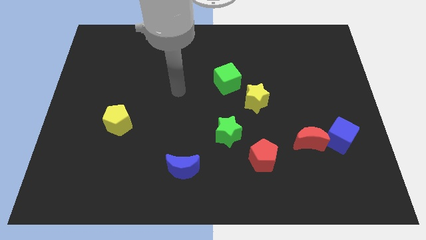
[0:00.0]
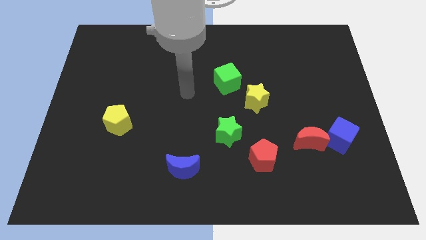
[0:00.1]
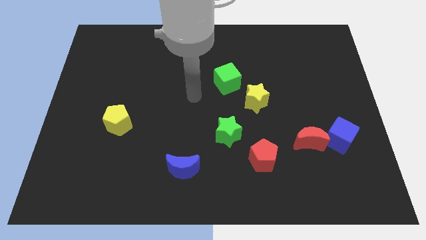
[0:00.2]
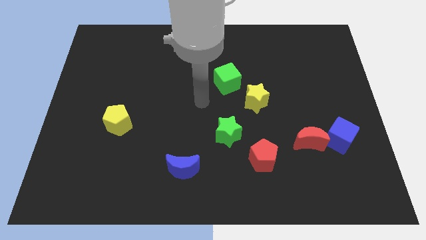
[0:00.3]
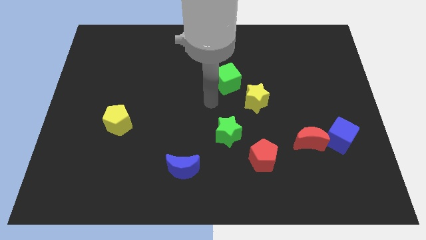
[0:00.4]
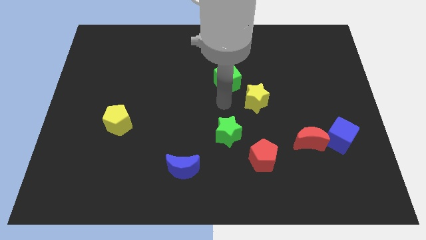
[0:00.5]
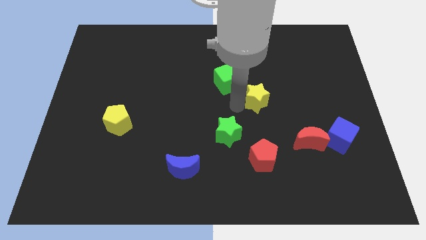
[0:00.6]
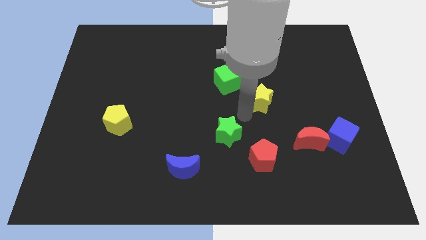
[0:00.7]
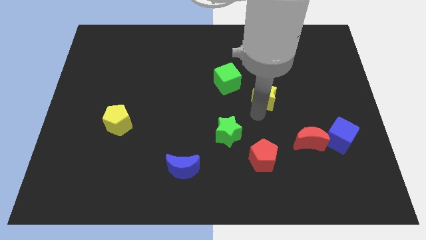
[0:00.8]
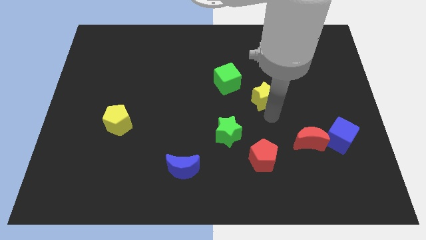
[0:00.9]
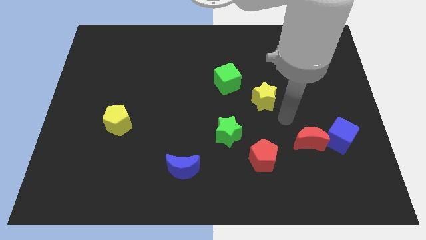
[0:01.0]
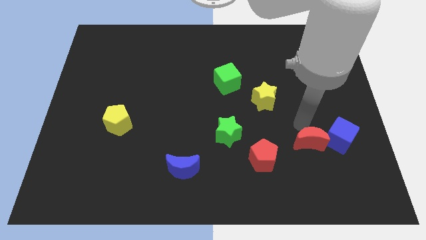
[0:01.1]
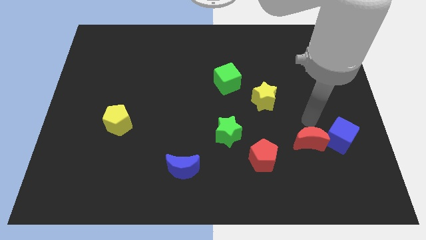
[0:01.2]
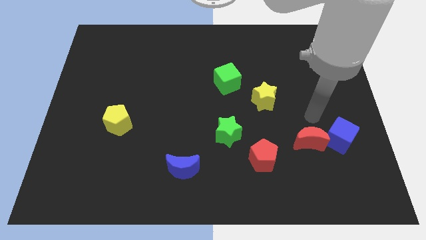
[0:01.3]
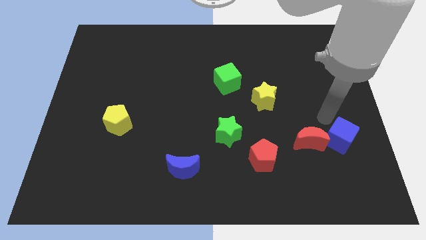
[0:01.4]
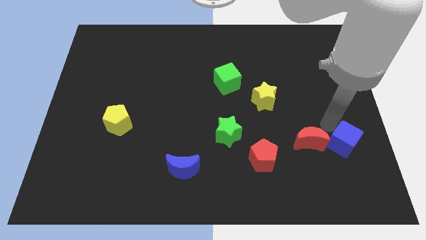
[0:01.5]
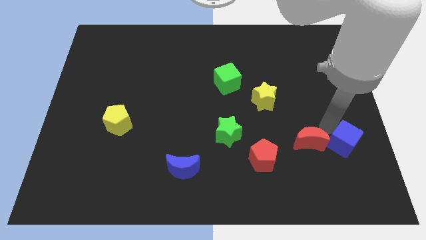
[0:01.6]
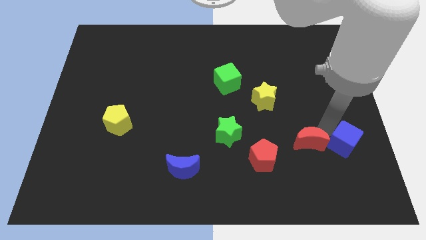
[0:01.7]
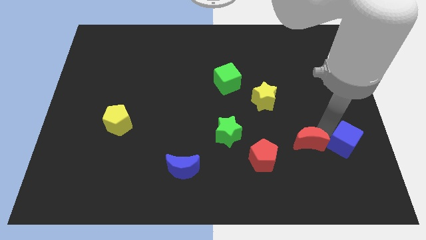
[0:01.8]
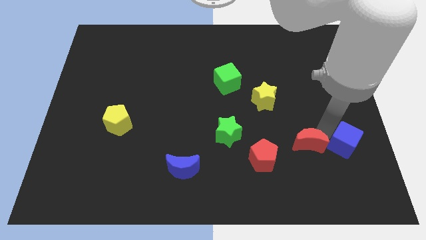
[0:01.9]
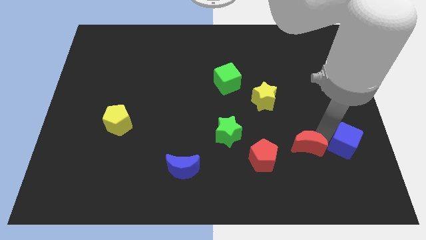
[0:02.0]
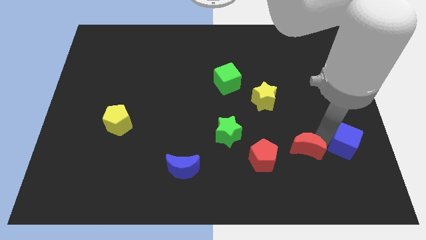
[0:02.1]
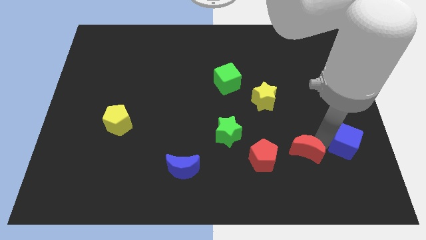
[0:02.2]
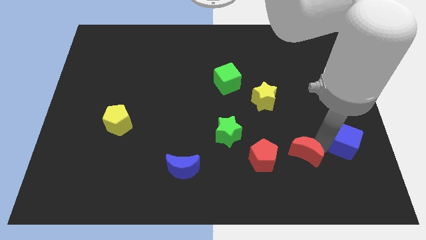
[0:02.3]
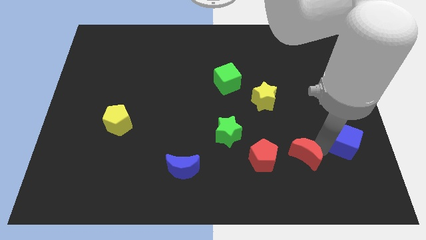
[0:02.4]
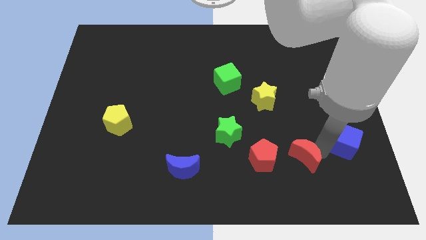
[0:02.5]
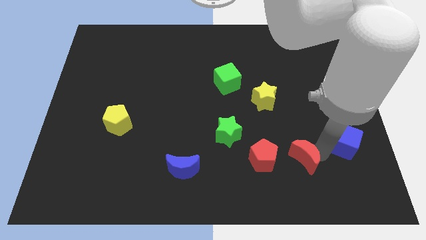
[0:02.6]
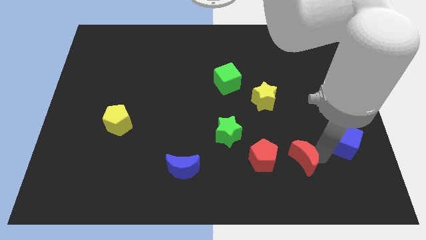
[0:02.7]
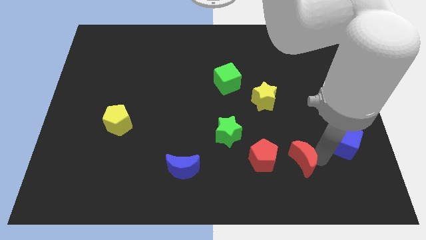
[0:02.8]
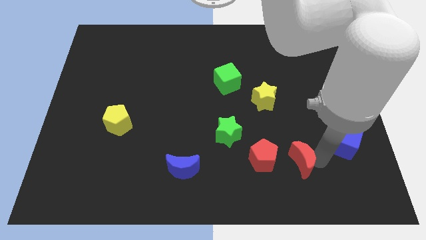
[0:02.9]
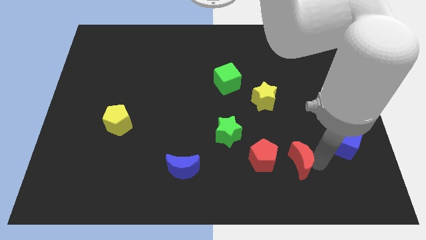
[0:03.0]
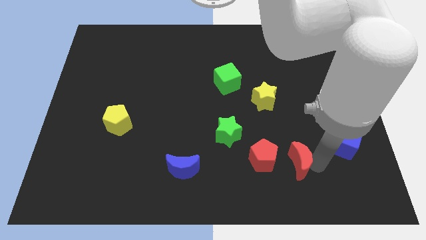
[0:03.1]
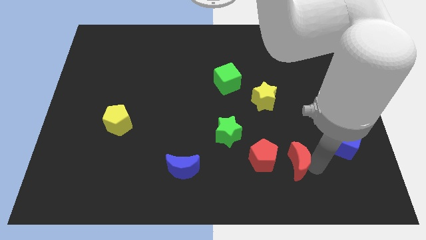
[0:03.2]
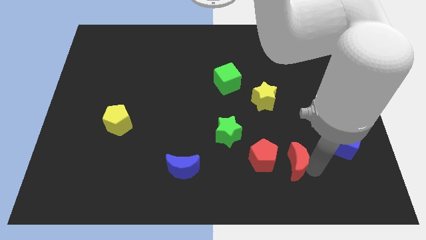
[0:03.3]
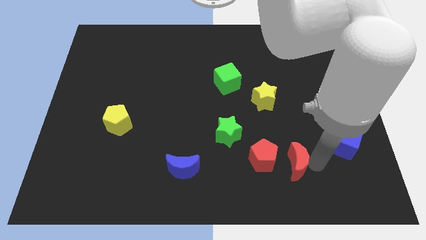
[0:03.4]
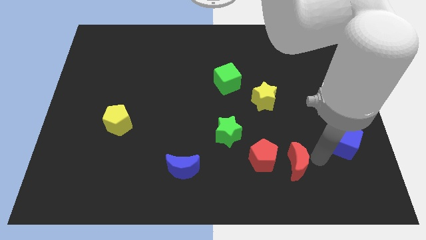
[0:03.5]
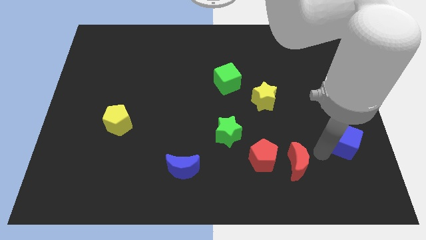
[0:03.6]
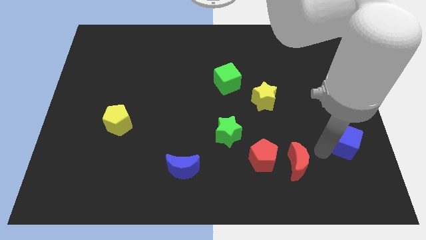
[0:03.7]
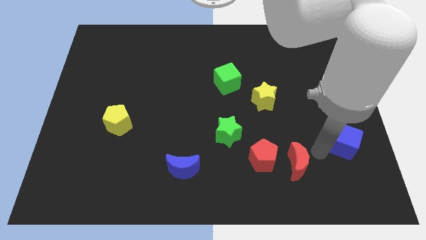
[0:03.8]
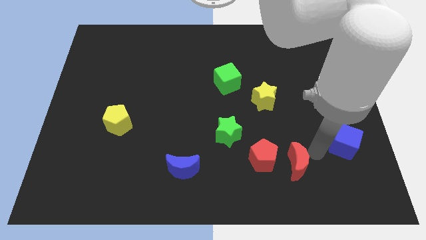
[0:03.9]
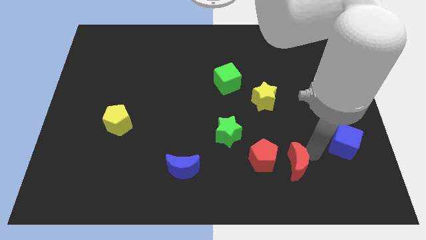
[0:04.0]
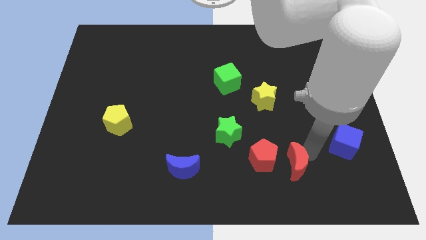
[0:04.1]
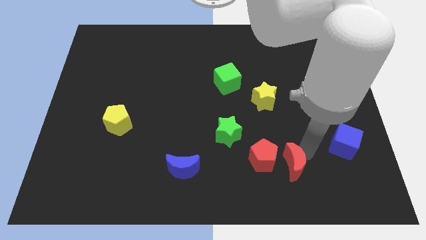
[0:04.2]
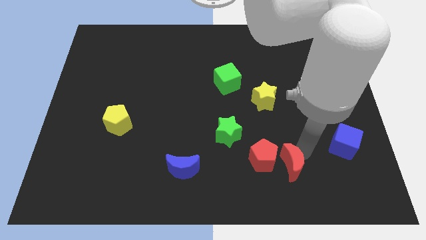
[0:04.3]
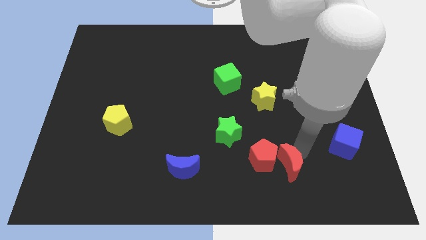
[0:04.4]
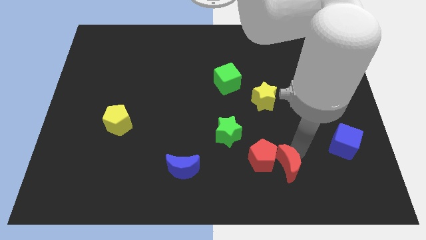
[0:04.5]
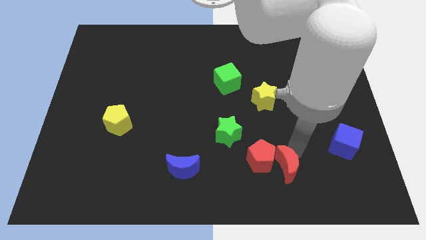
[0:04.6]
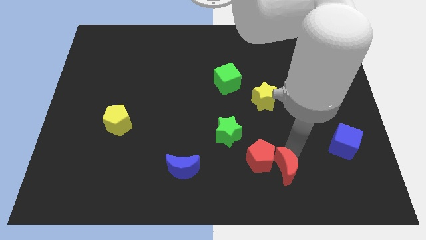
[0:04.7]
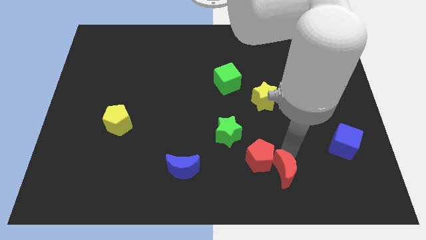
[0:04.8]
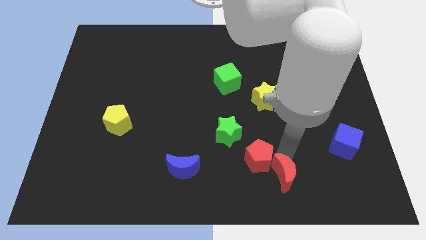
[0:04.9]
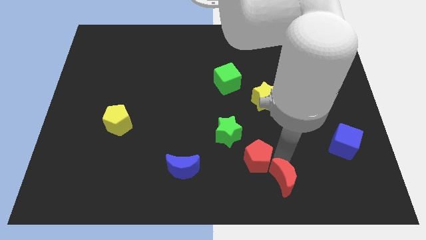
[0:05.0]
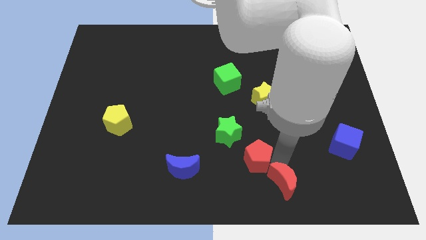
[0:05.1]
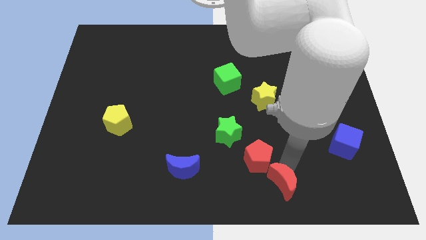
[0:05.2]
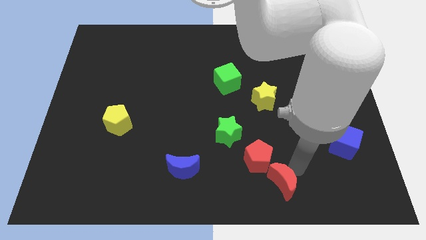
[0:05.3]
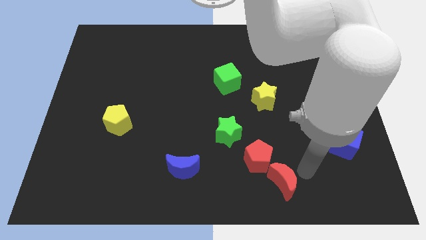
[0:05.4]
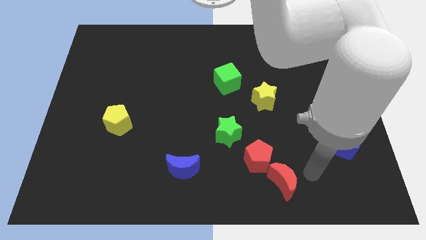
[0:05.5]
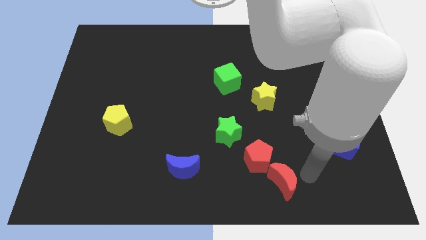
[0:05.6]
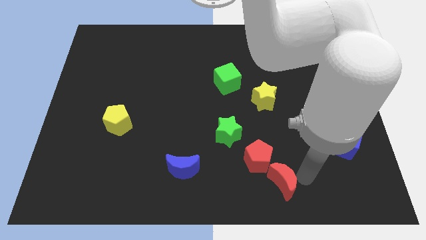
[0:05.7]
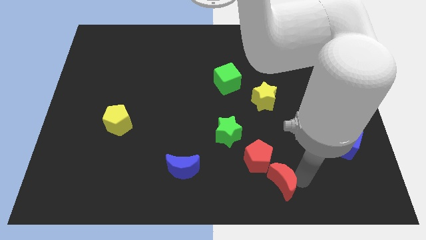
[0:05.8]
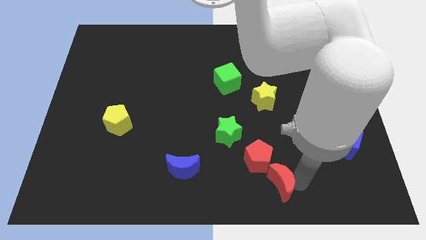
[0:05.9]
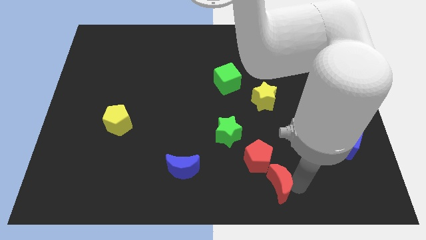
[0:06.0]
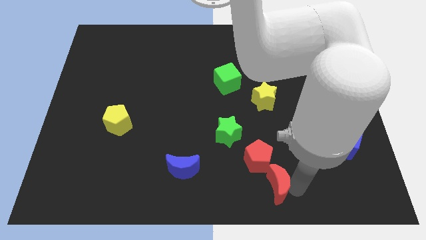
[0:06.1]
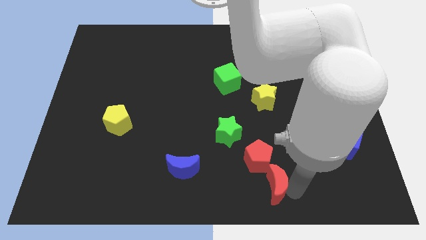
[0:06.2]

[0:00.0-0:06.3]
move the red moon to the bottom
